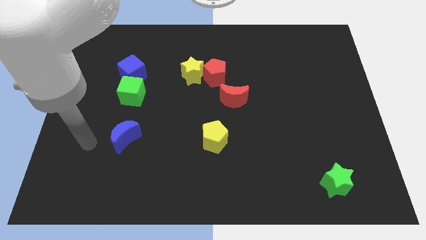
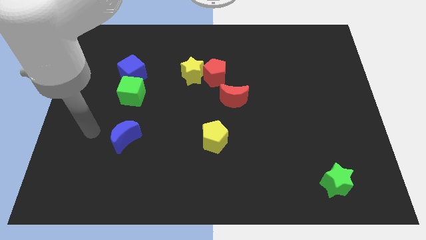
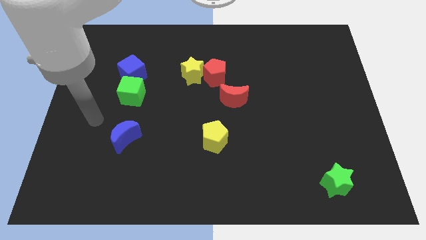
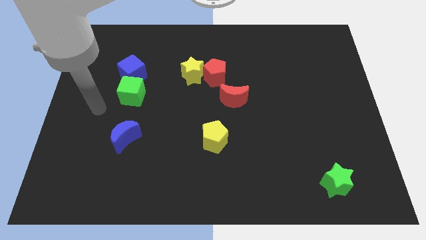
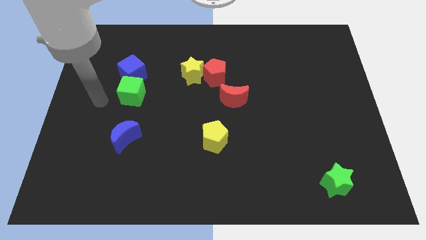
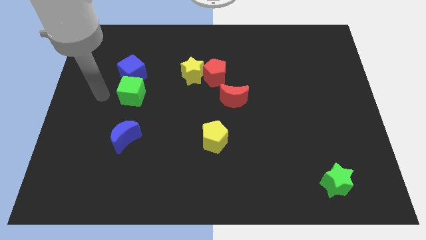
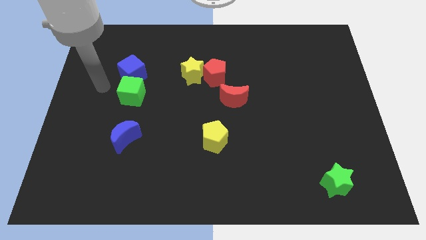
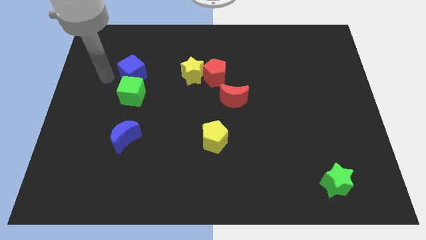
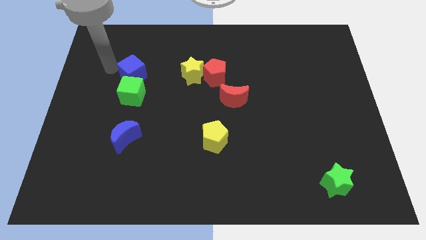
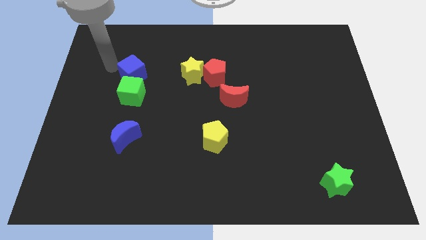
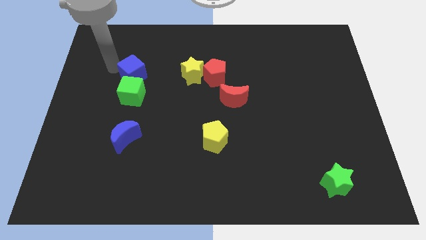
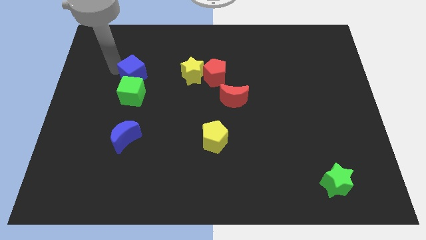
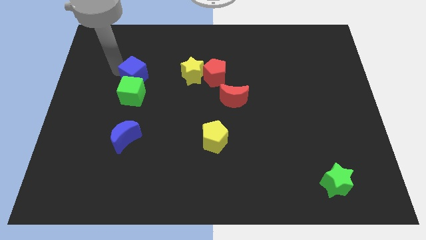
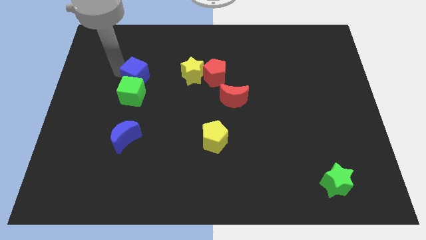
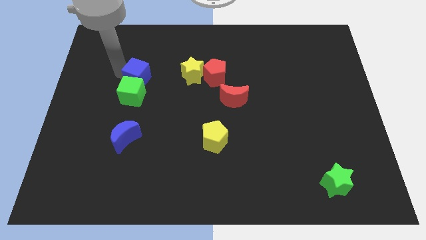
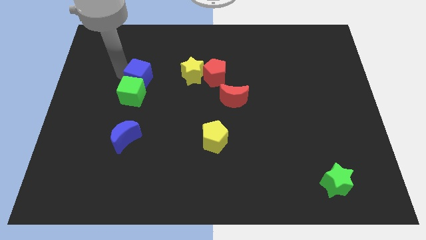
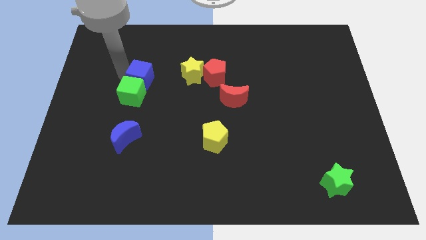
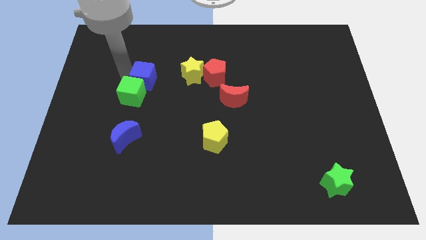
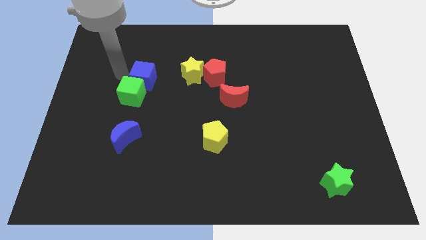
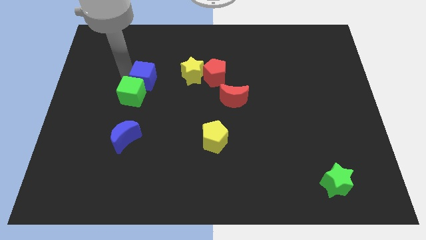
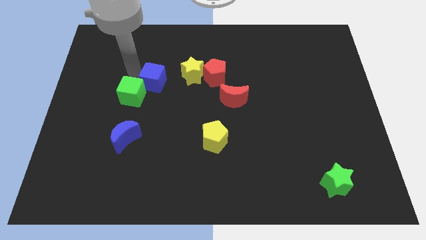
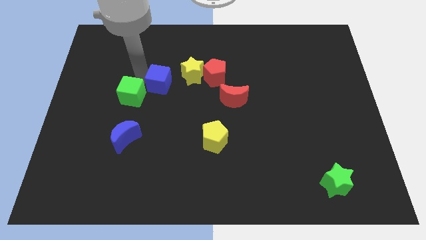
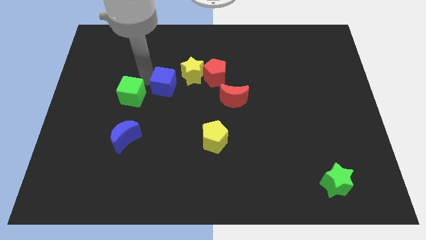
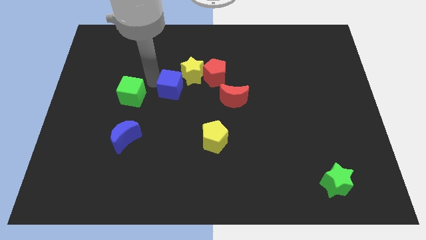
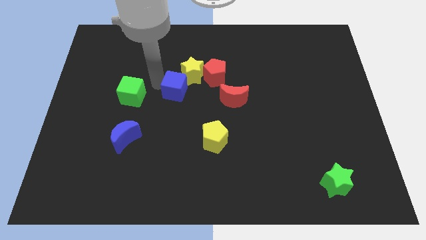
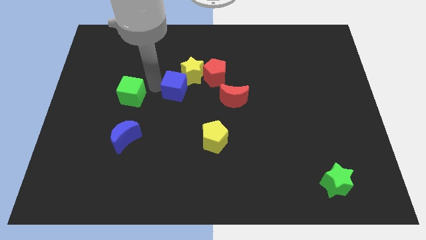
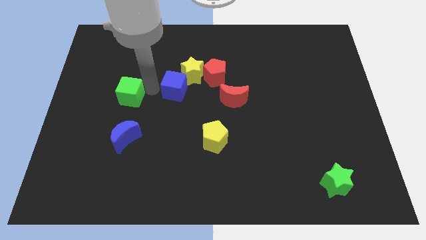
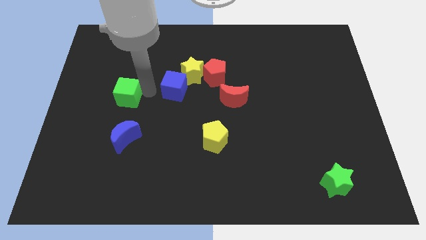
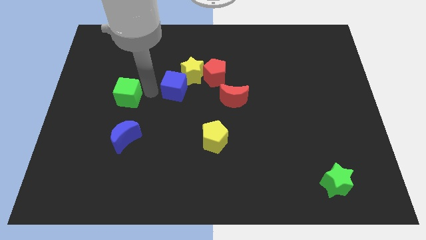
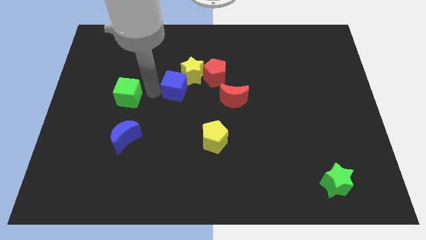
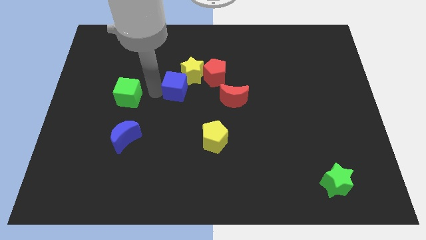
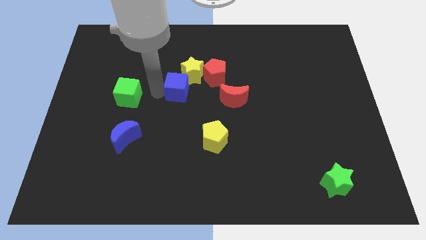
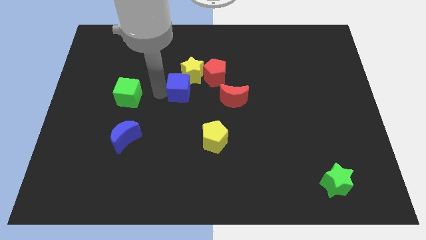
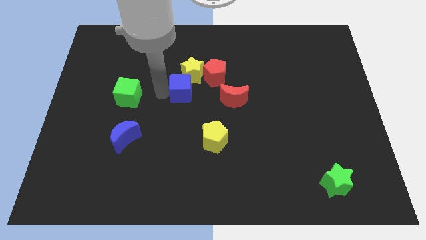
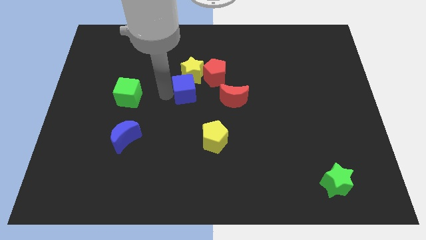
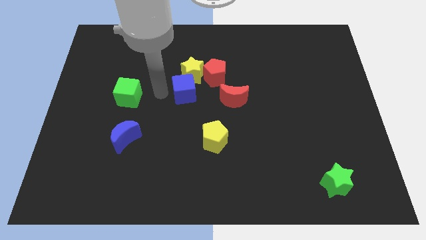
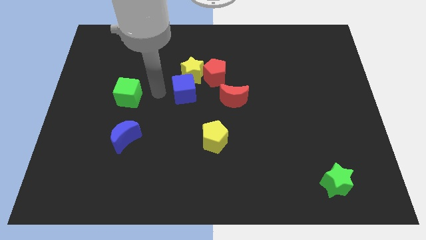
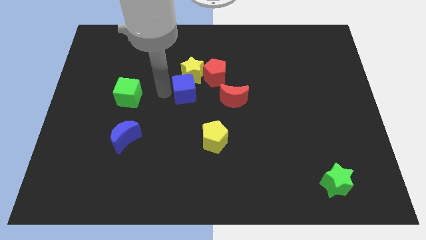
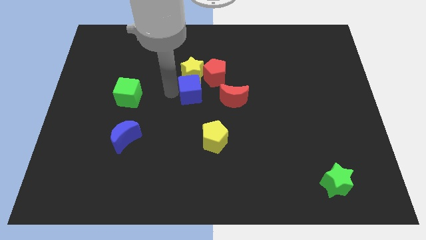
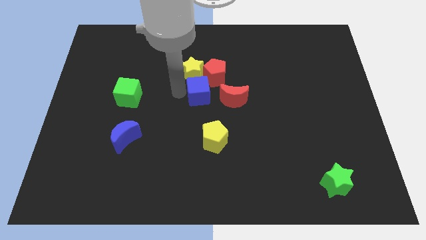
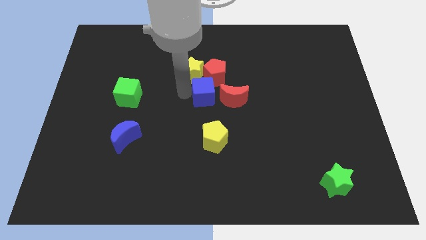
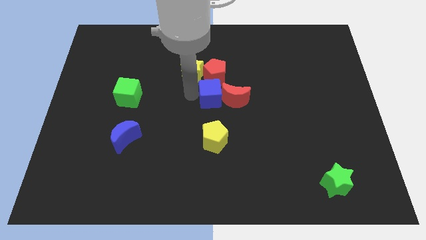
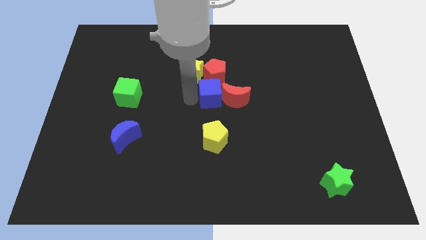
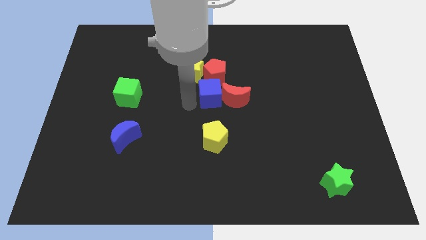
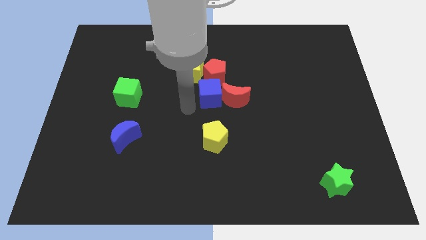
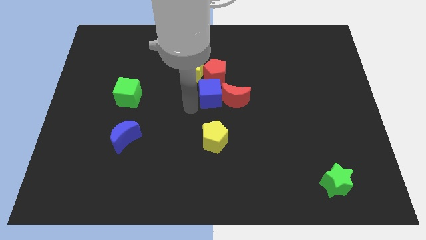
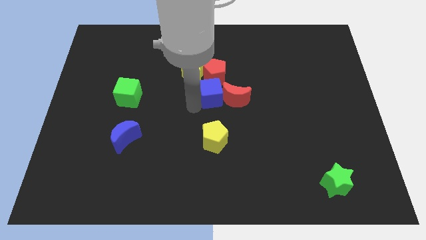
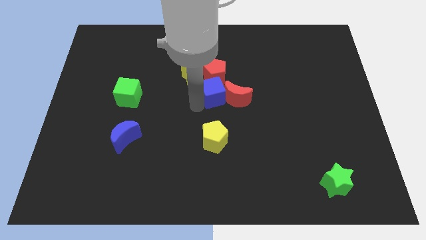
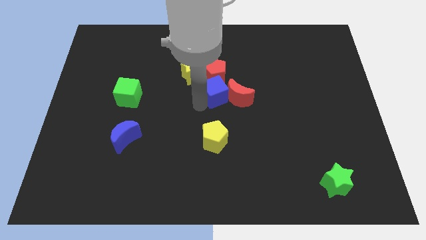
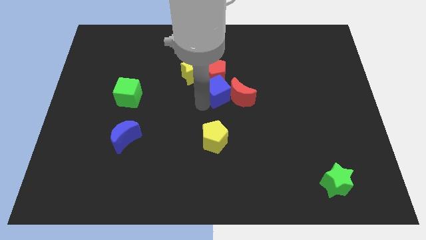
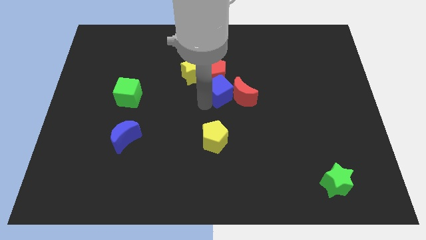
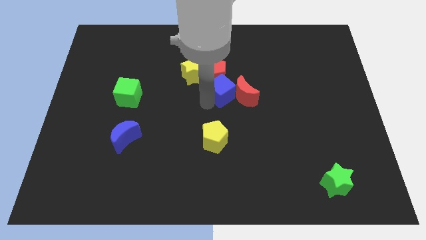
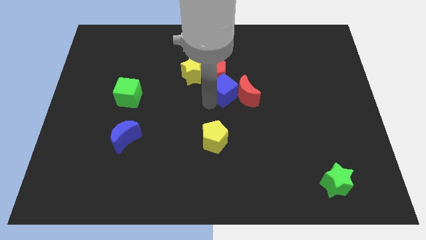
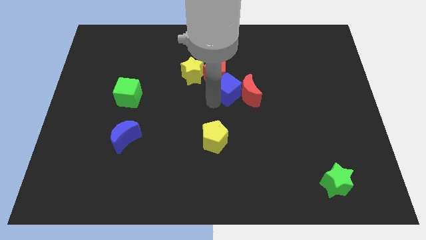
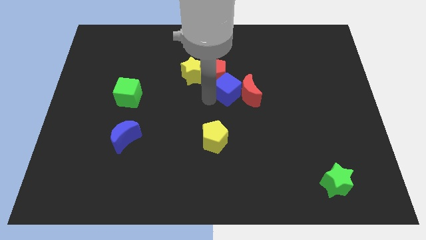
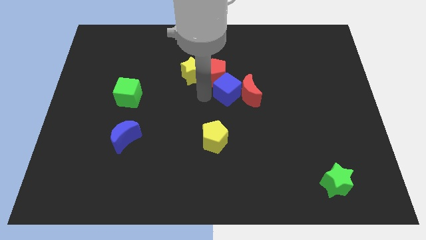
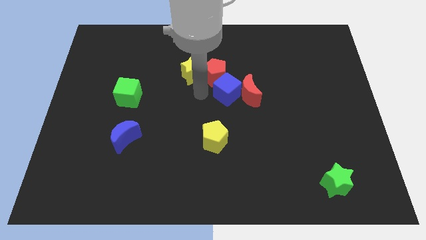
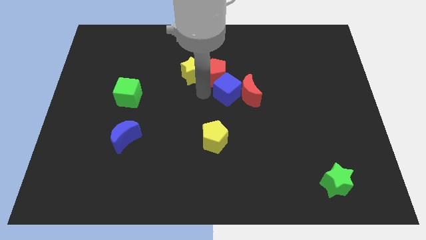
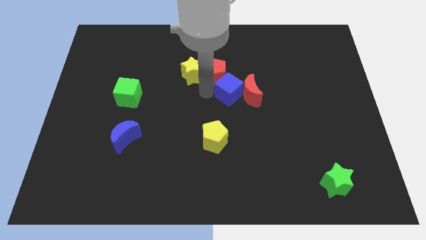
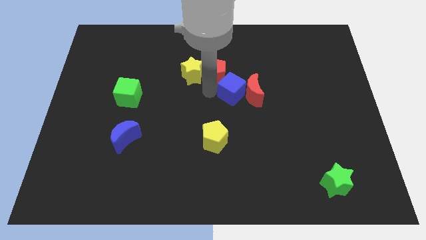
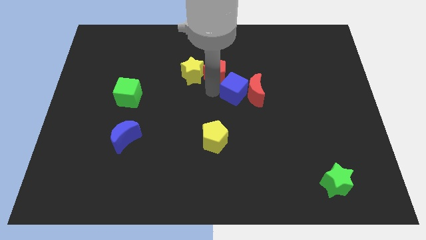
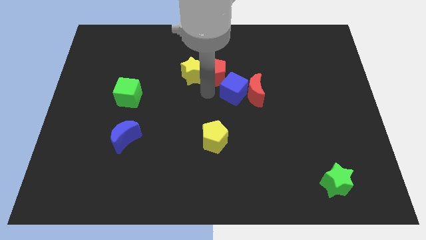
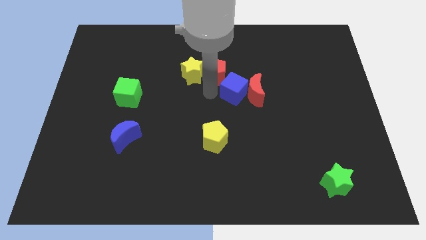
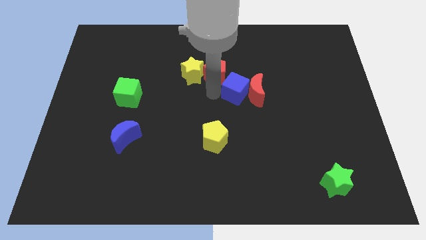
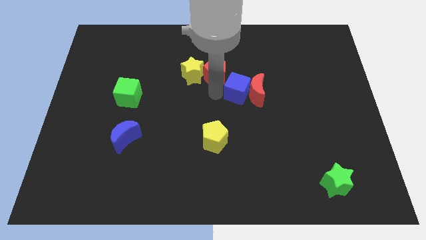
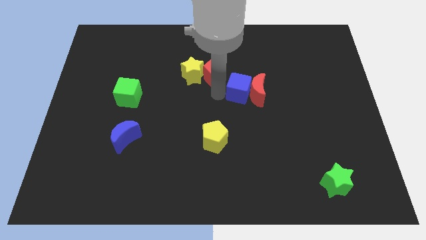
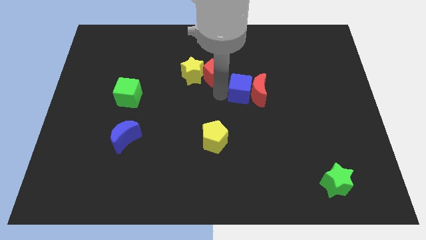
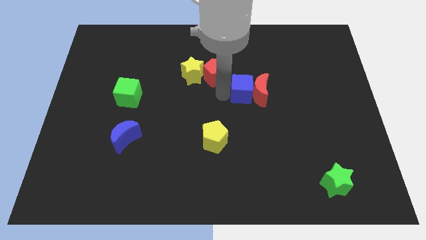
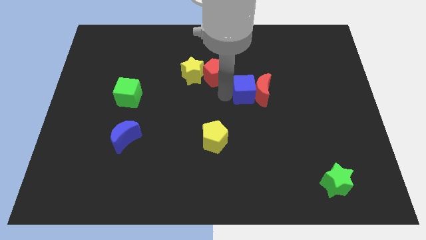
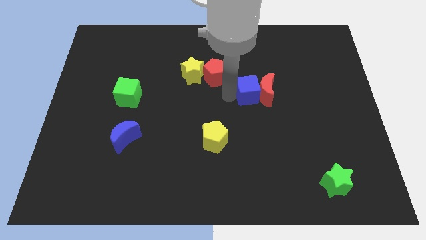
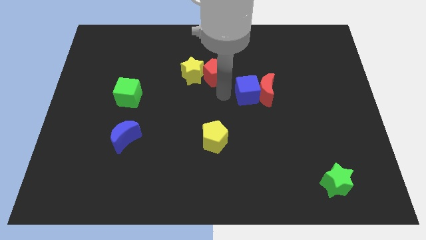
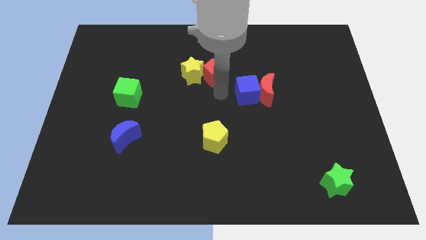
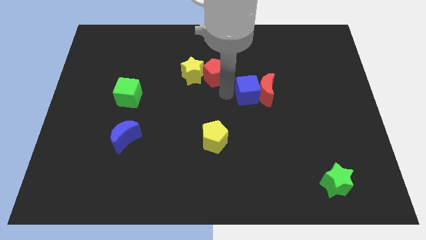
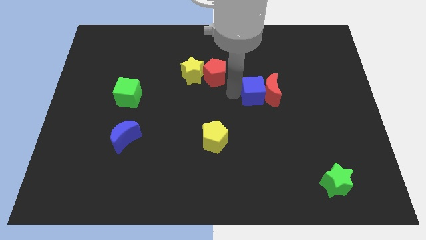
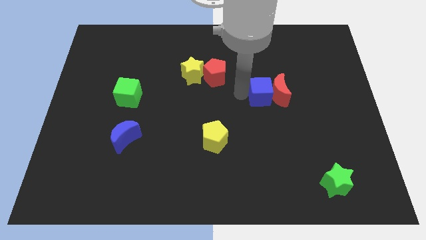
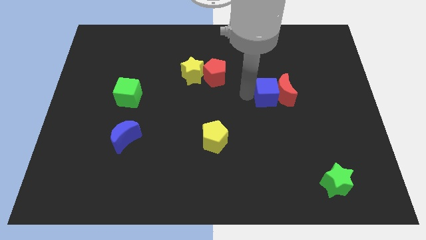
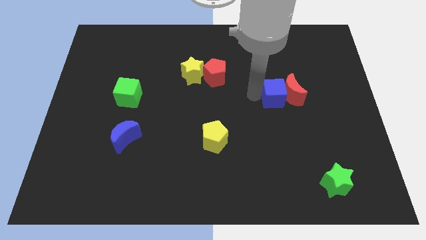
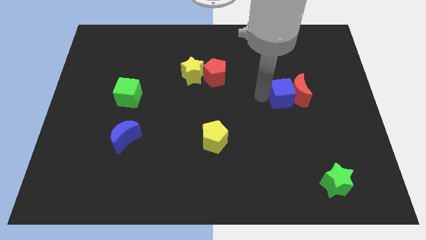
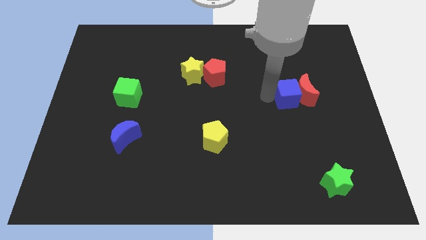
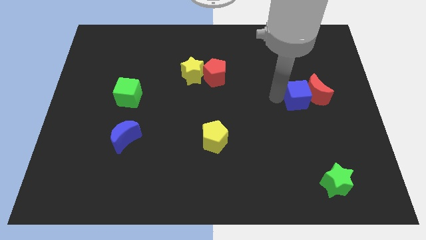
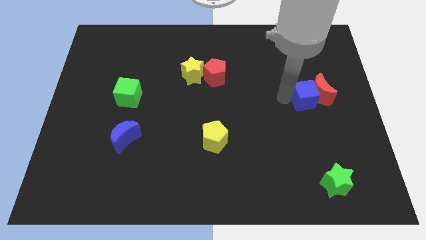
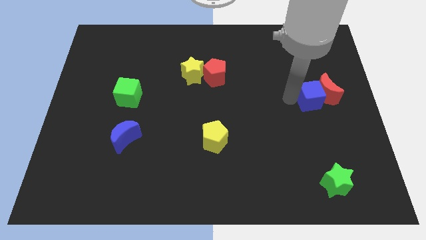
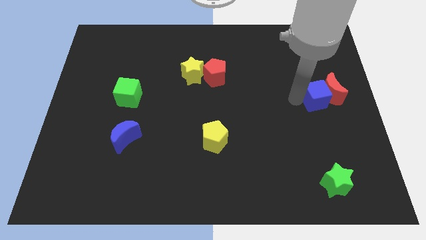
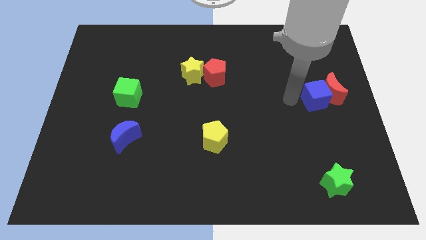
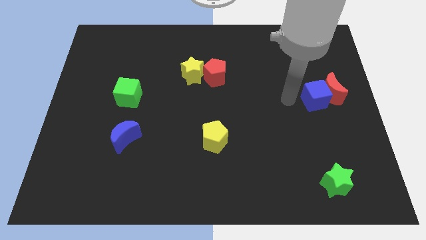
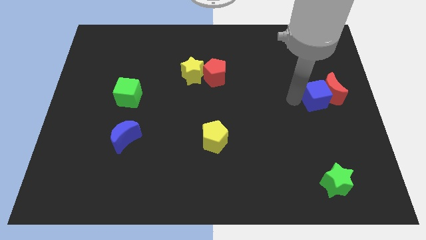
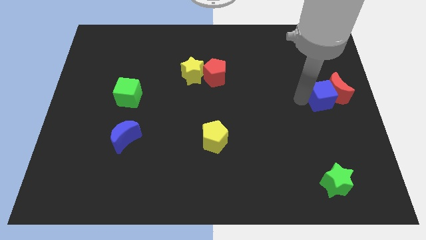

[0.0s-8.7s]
push the blue cube to the right side of the board
